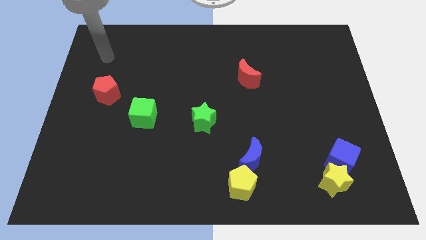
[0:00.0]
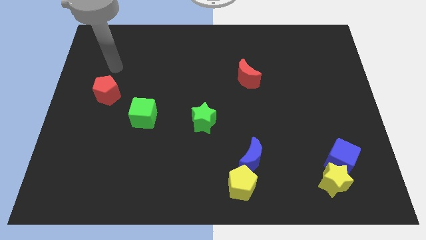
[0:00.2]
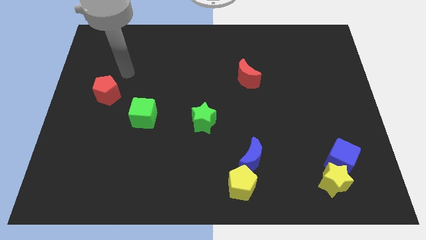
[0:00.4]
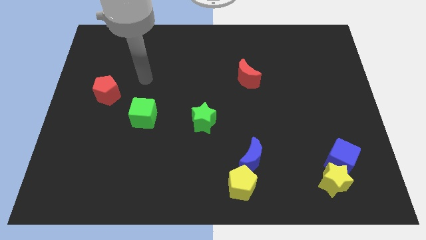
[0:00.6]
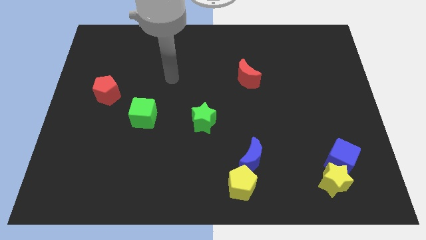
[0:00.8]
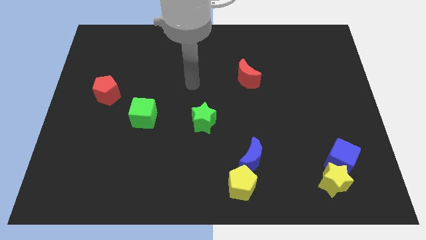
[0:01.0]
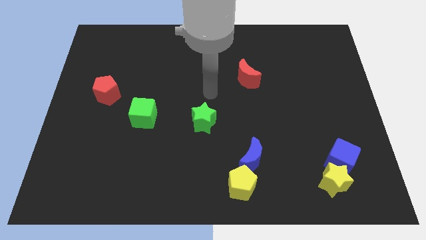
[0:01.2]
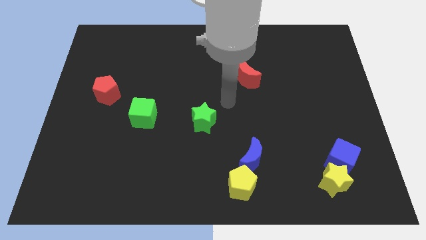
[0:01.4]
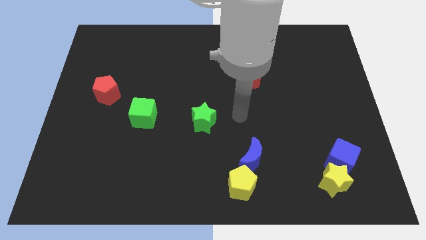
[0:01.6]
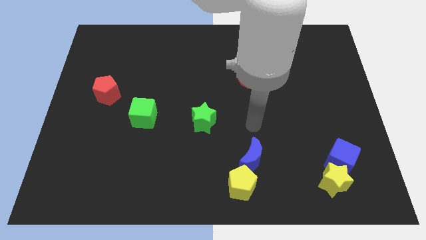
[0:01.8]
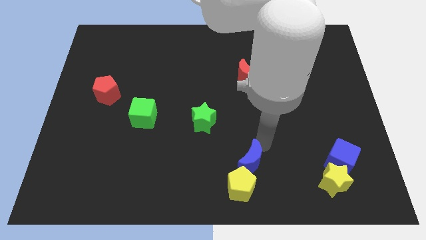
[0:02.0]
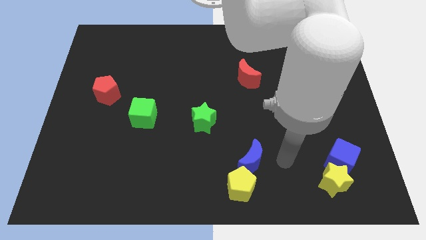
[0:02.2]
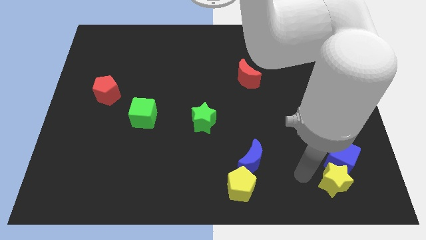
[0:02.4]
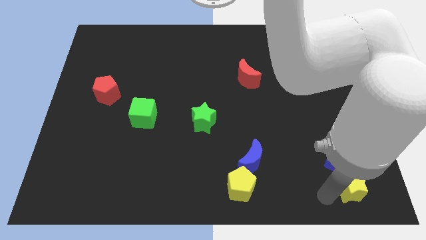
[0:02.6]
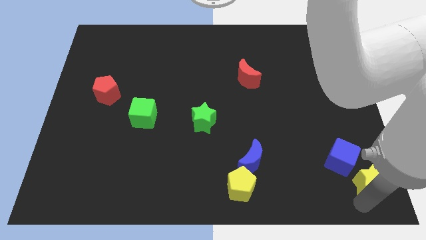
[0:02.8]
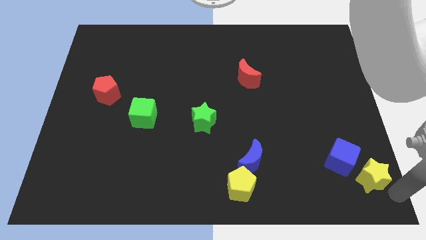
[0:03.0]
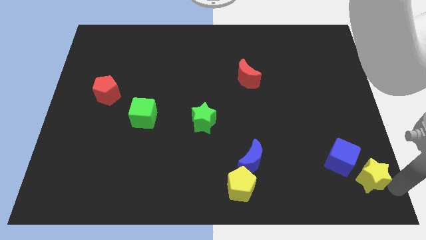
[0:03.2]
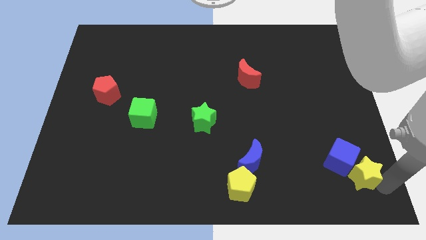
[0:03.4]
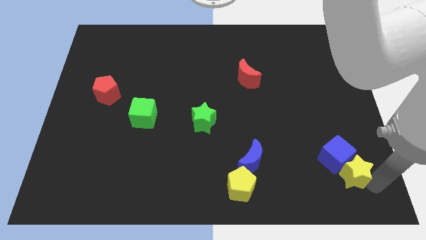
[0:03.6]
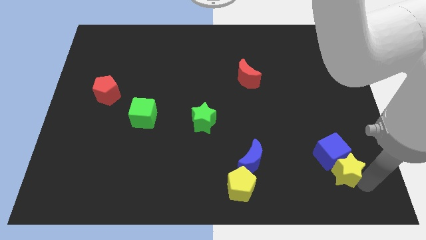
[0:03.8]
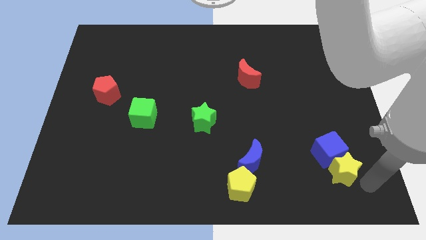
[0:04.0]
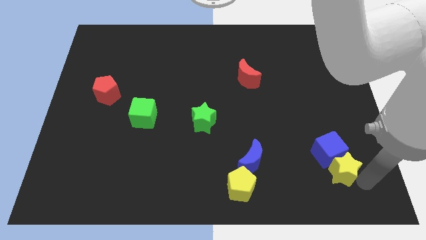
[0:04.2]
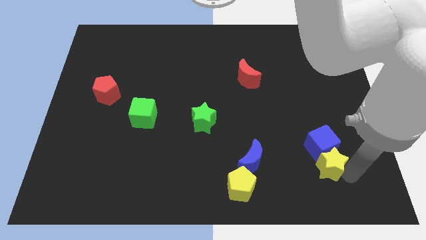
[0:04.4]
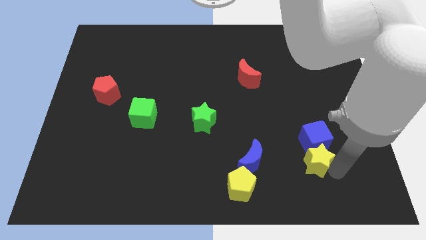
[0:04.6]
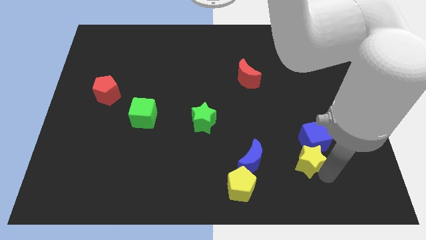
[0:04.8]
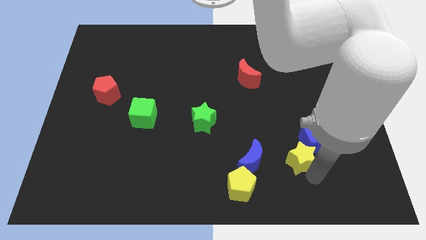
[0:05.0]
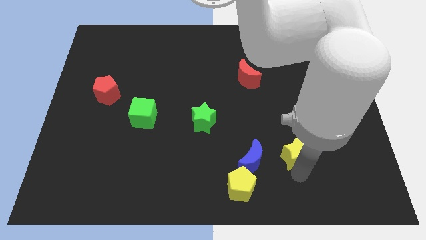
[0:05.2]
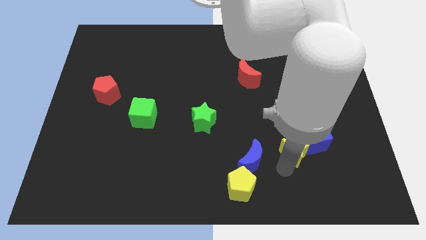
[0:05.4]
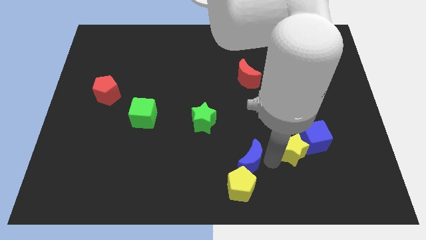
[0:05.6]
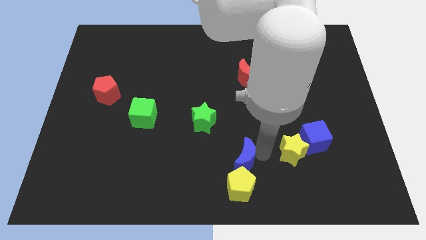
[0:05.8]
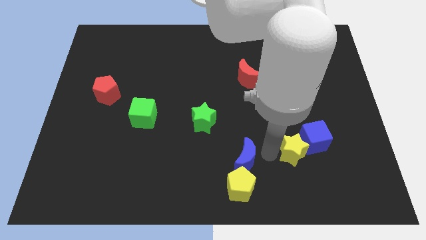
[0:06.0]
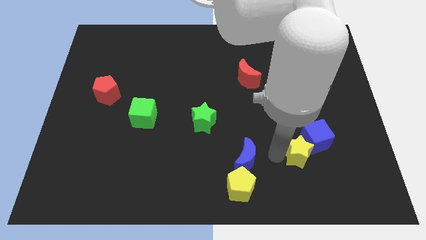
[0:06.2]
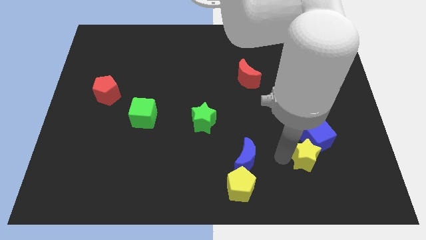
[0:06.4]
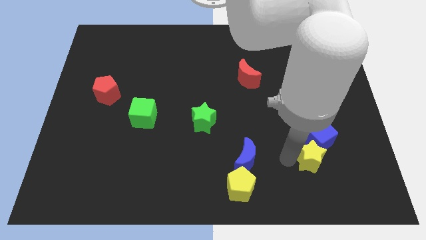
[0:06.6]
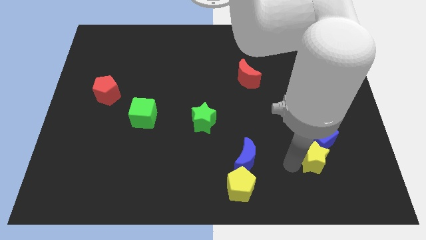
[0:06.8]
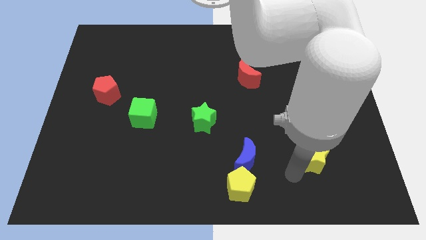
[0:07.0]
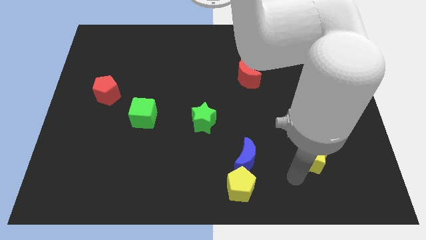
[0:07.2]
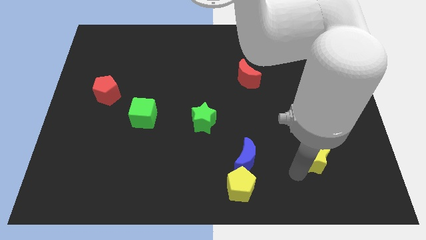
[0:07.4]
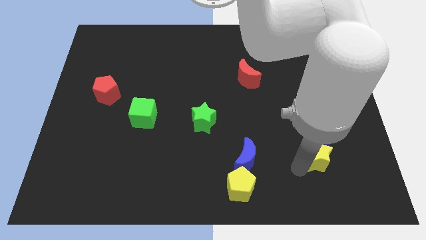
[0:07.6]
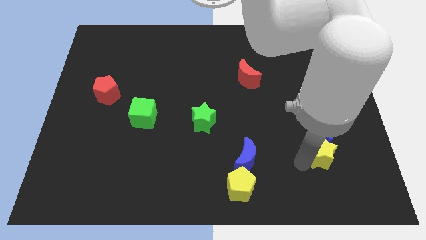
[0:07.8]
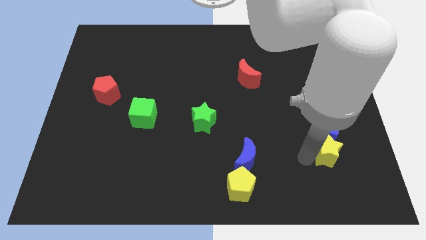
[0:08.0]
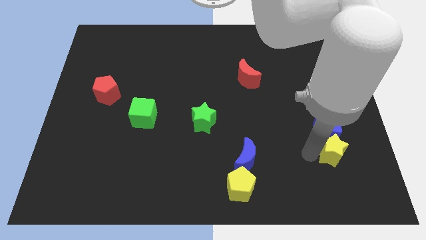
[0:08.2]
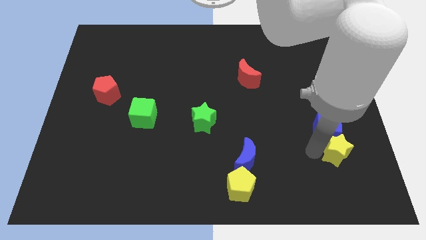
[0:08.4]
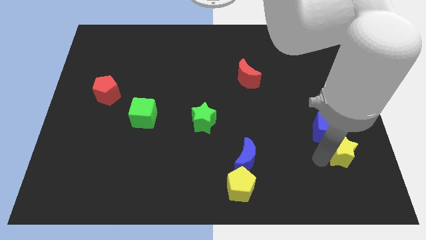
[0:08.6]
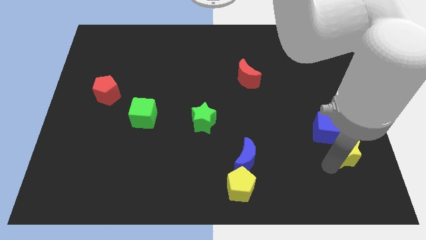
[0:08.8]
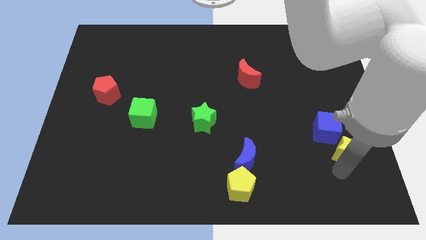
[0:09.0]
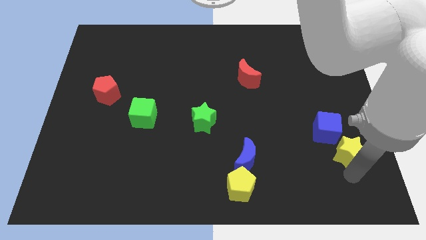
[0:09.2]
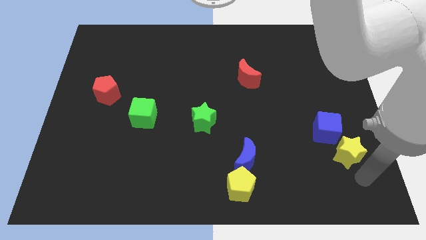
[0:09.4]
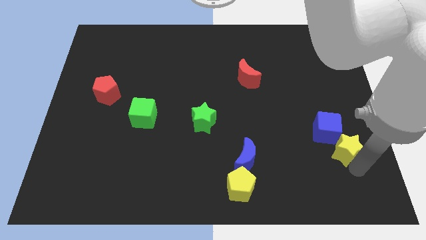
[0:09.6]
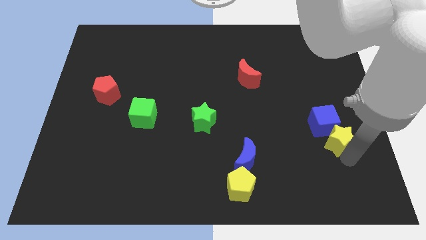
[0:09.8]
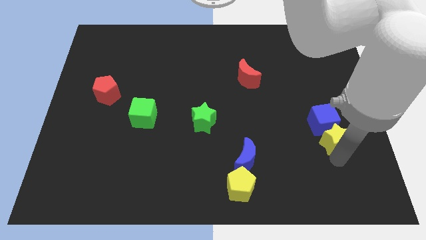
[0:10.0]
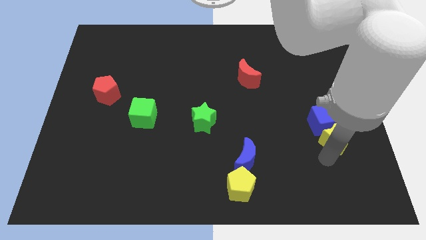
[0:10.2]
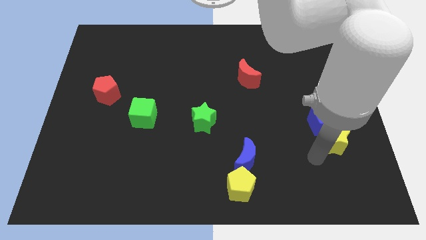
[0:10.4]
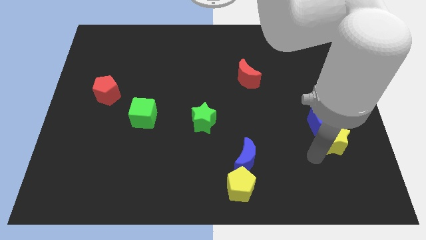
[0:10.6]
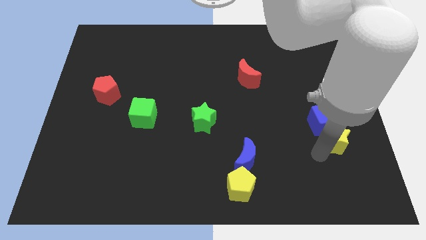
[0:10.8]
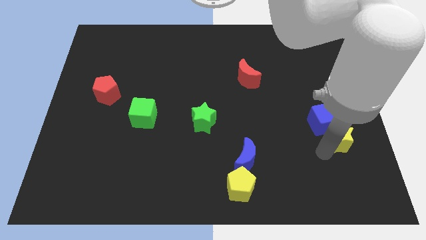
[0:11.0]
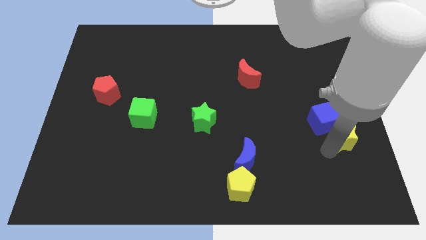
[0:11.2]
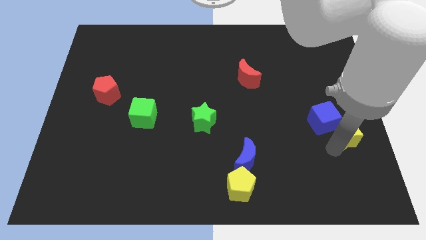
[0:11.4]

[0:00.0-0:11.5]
slide the yellow star to the center right

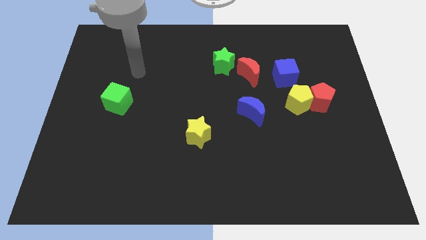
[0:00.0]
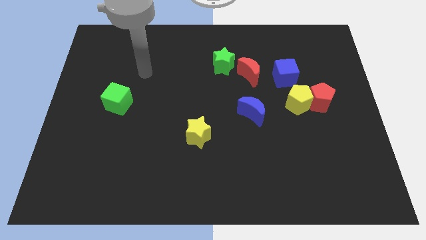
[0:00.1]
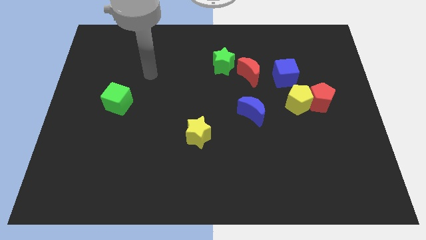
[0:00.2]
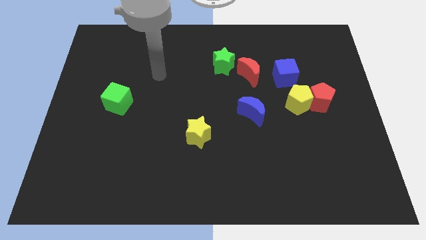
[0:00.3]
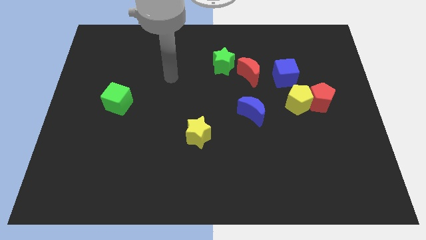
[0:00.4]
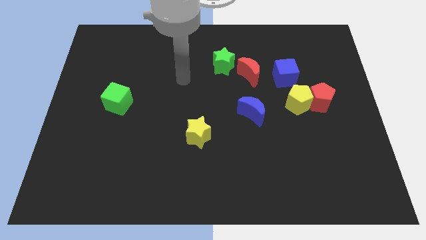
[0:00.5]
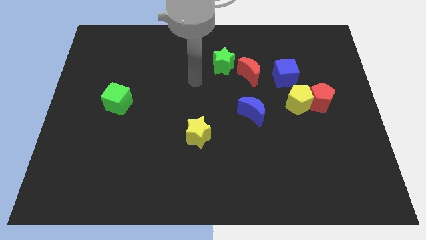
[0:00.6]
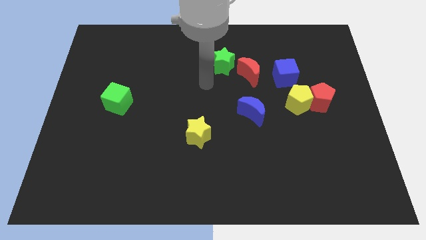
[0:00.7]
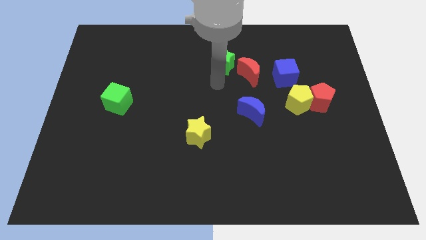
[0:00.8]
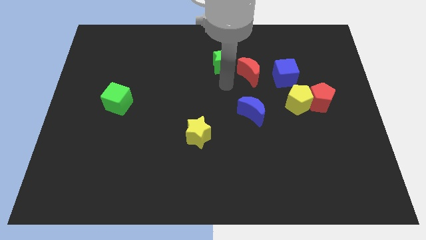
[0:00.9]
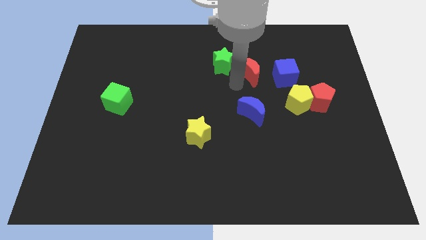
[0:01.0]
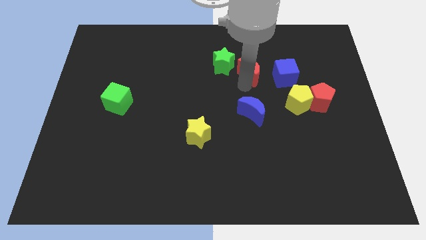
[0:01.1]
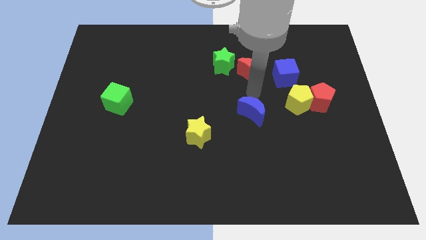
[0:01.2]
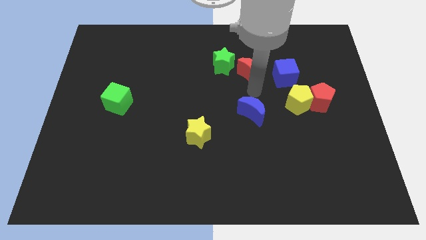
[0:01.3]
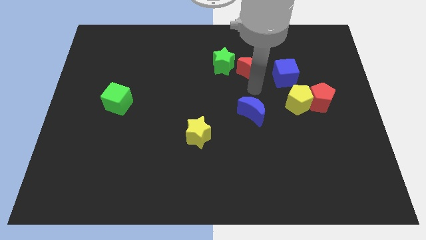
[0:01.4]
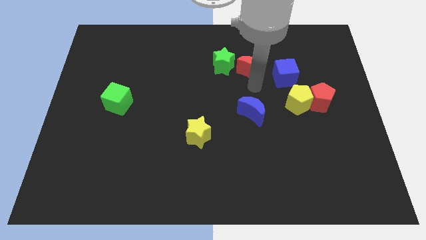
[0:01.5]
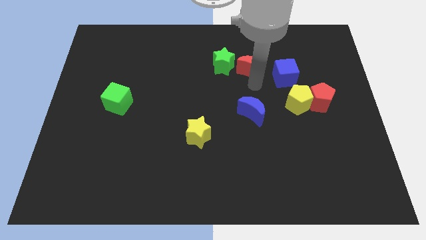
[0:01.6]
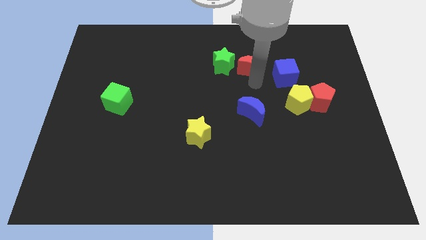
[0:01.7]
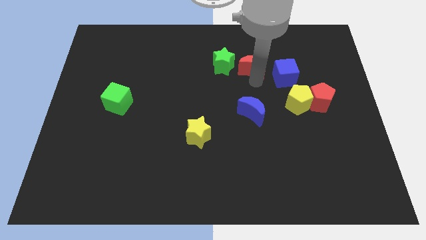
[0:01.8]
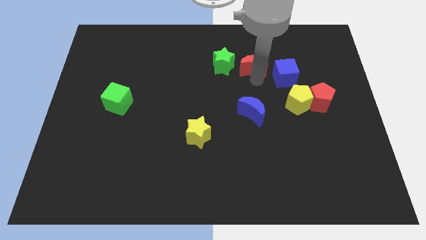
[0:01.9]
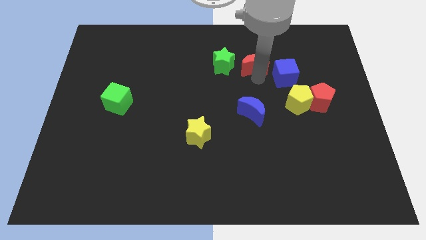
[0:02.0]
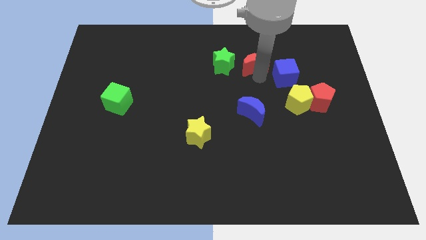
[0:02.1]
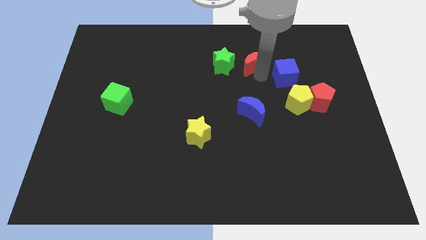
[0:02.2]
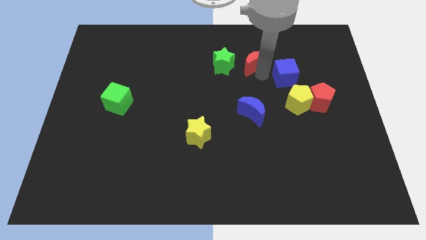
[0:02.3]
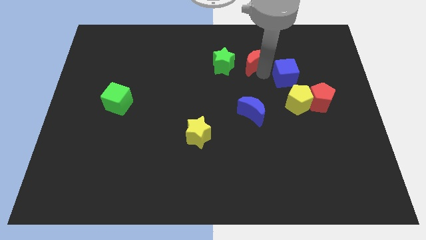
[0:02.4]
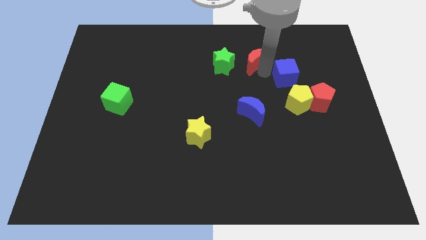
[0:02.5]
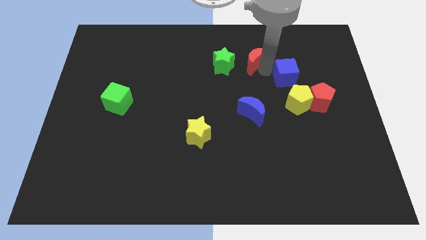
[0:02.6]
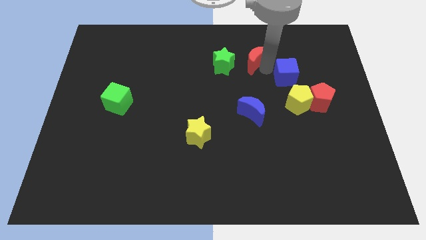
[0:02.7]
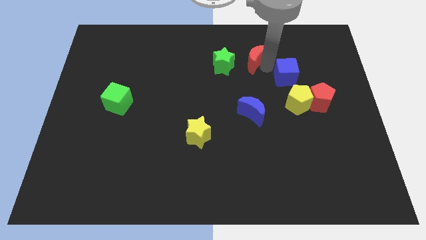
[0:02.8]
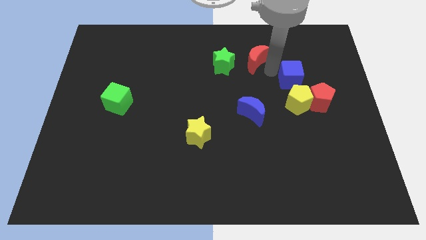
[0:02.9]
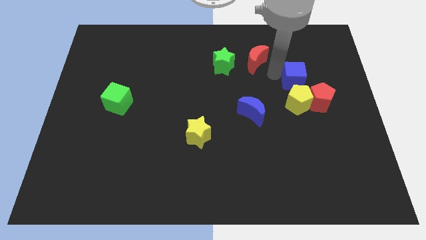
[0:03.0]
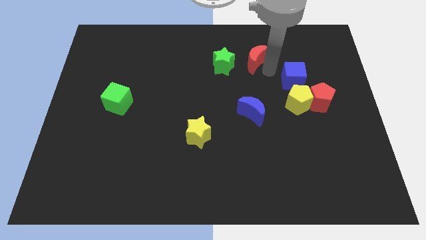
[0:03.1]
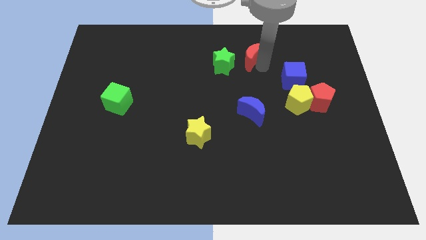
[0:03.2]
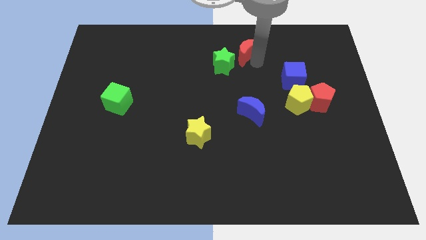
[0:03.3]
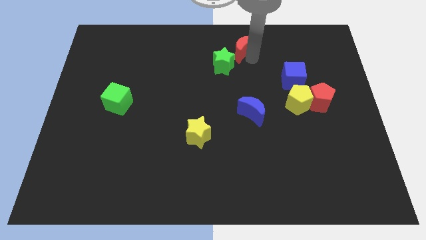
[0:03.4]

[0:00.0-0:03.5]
push the red moon to the top
